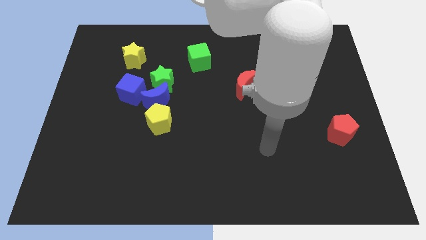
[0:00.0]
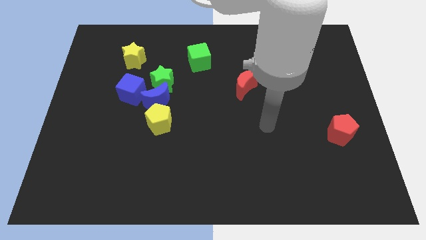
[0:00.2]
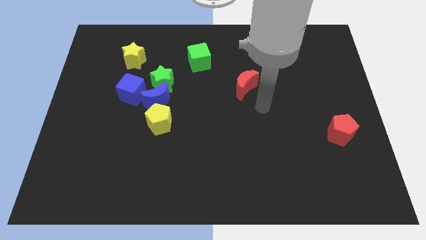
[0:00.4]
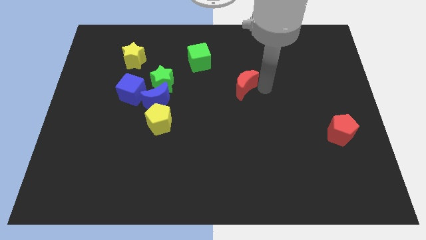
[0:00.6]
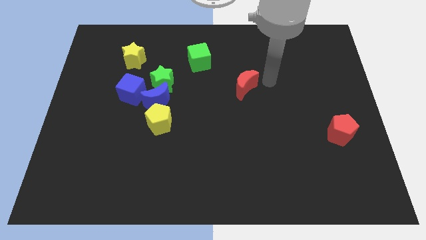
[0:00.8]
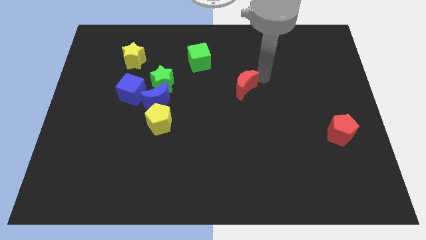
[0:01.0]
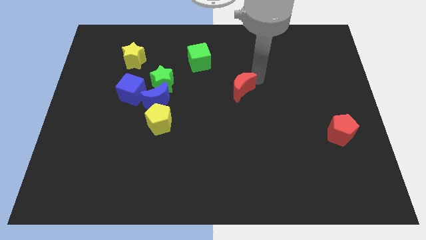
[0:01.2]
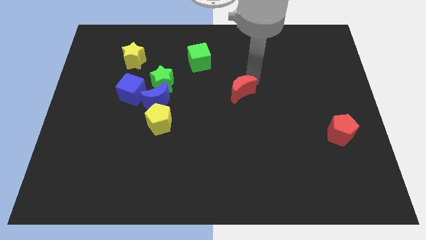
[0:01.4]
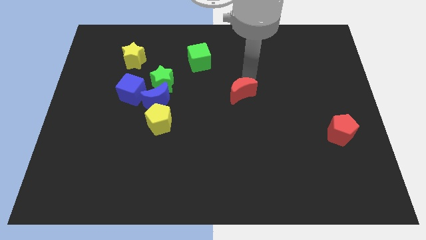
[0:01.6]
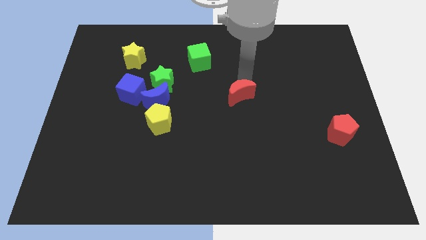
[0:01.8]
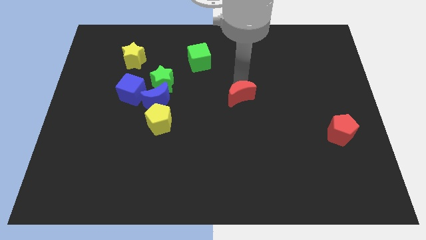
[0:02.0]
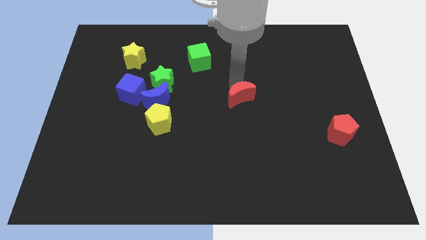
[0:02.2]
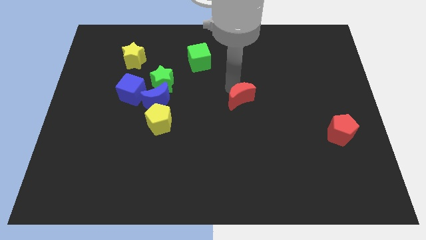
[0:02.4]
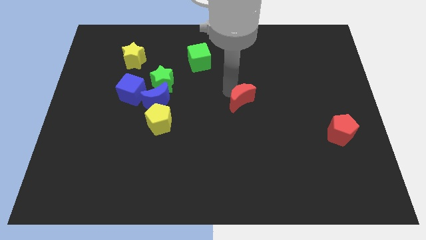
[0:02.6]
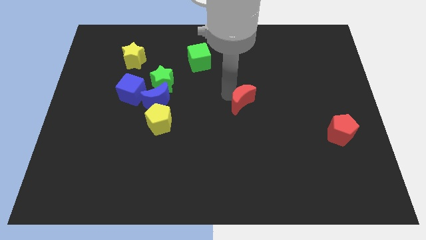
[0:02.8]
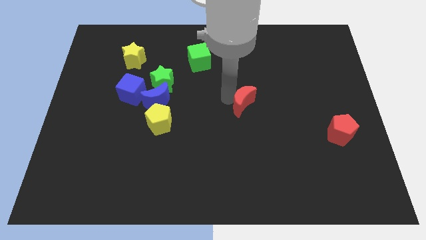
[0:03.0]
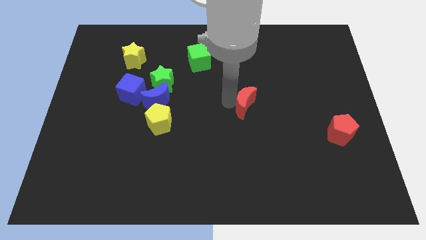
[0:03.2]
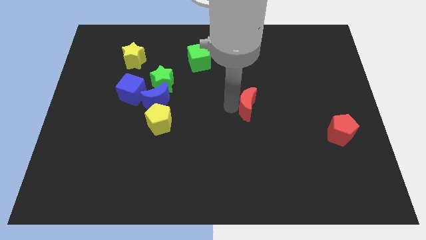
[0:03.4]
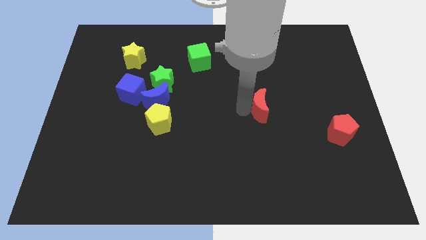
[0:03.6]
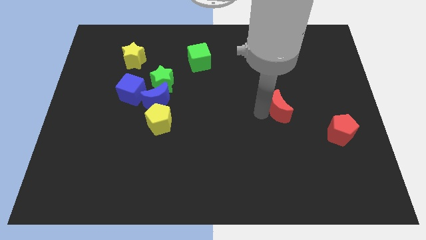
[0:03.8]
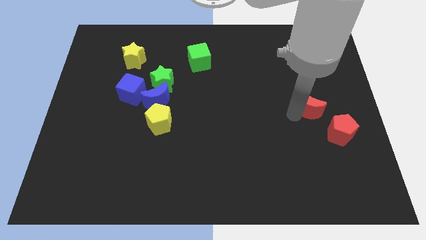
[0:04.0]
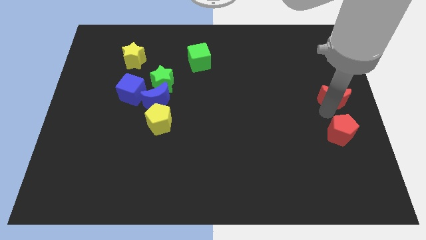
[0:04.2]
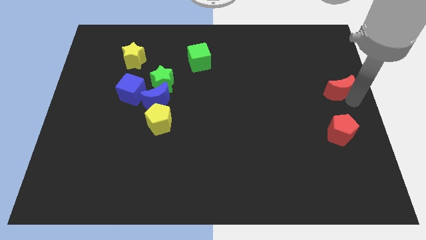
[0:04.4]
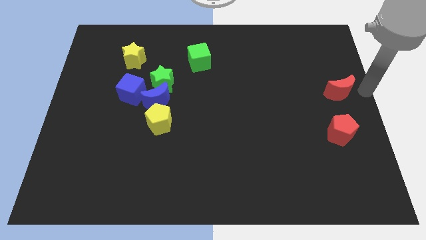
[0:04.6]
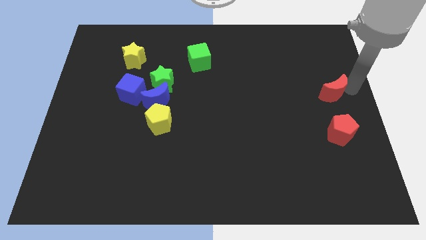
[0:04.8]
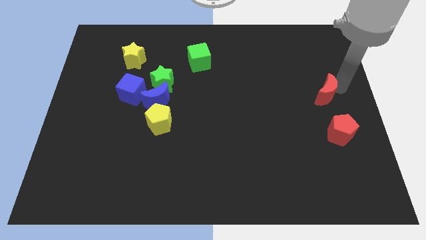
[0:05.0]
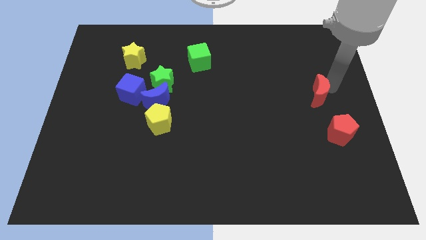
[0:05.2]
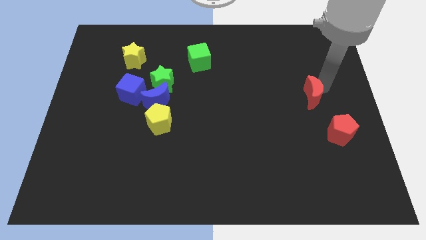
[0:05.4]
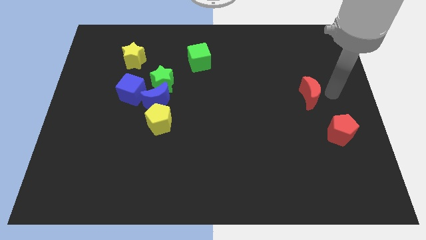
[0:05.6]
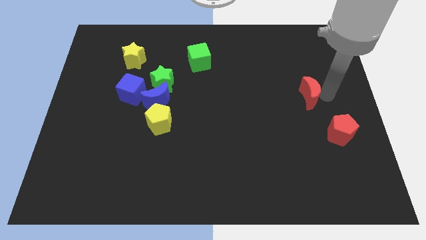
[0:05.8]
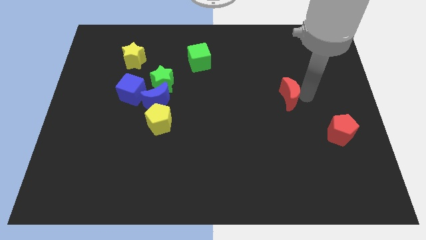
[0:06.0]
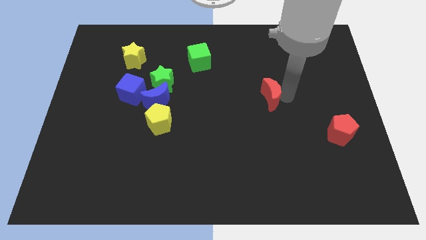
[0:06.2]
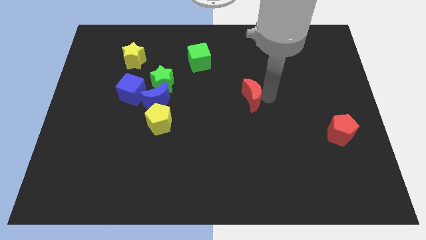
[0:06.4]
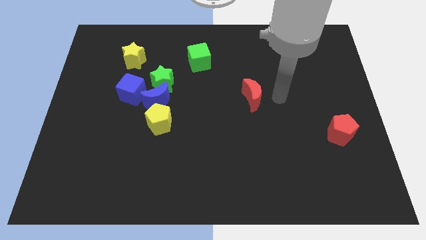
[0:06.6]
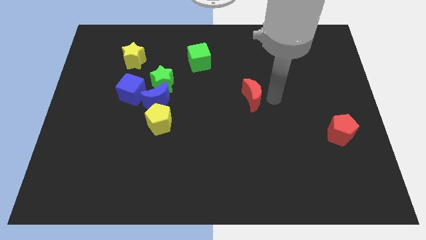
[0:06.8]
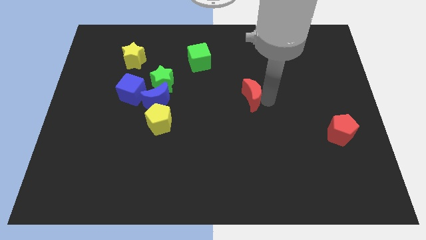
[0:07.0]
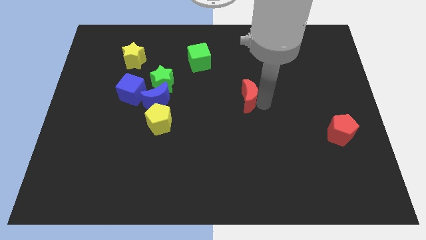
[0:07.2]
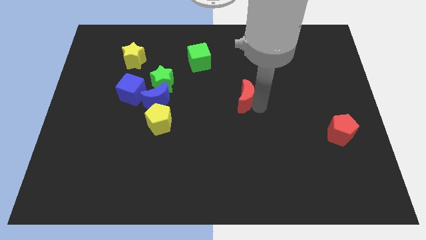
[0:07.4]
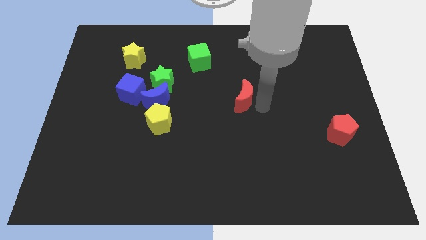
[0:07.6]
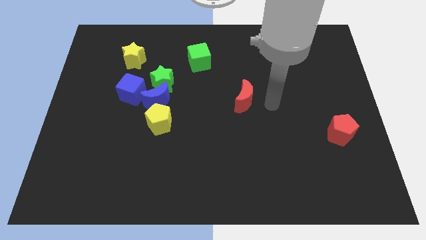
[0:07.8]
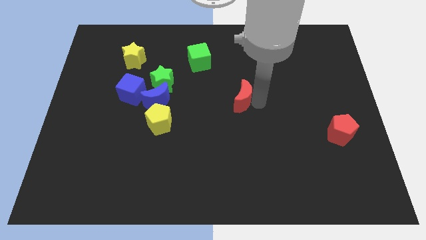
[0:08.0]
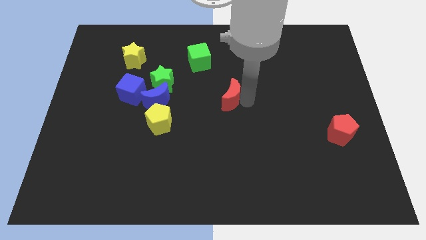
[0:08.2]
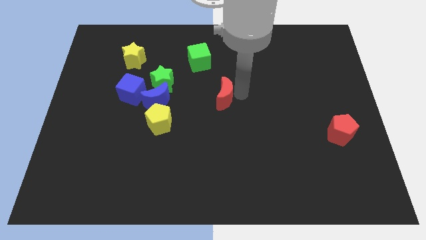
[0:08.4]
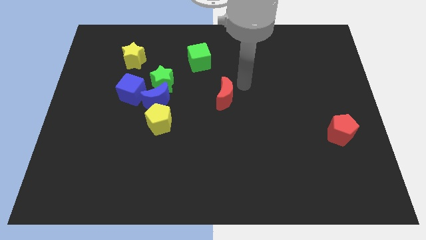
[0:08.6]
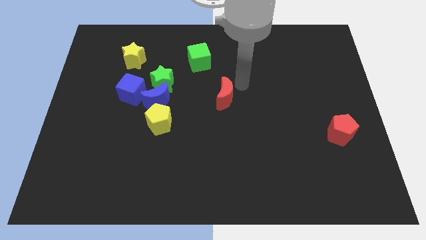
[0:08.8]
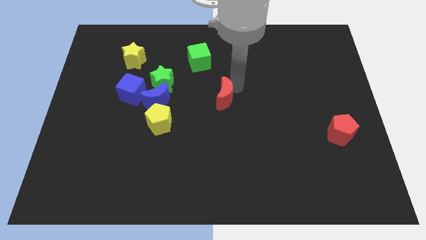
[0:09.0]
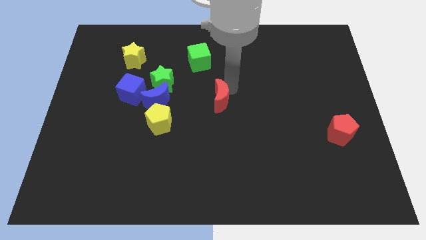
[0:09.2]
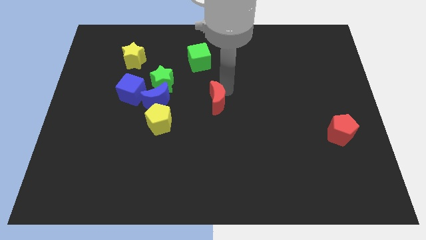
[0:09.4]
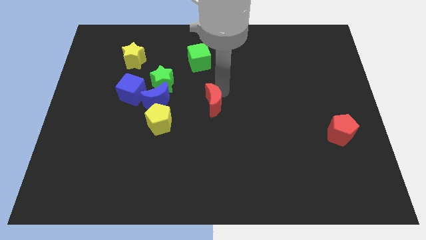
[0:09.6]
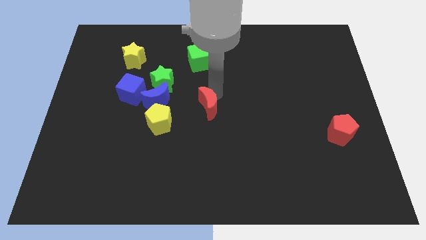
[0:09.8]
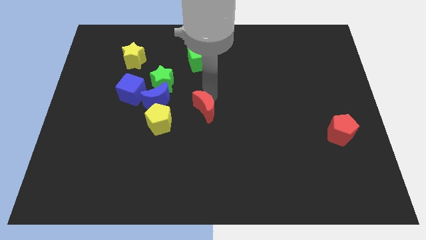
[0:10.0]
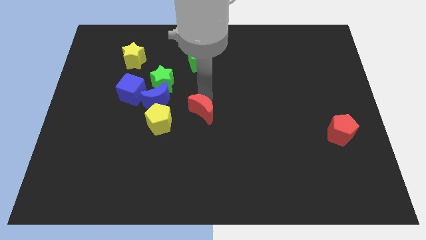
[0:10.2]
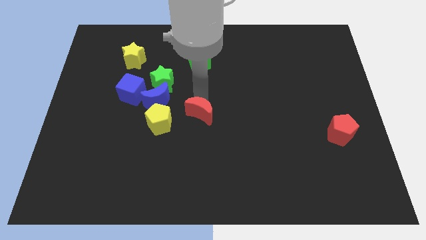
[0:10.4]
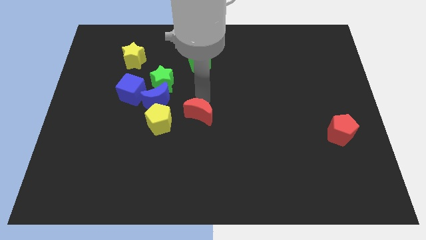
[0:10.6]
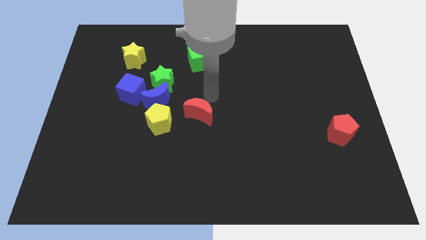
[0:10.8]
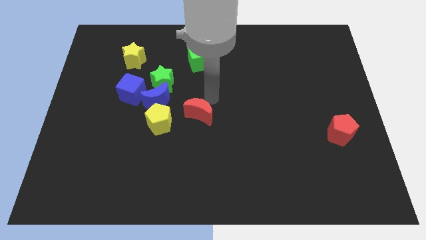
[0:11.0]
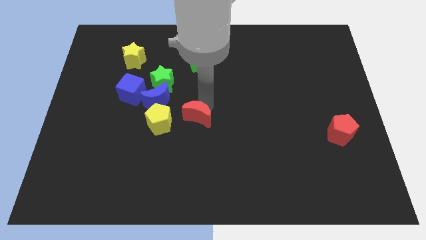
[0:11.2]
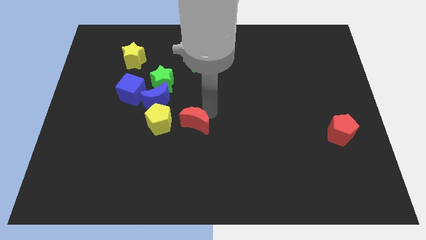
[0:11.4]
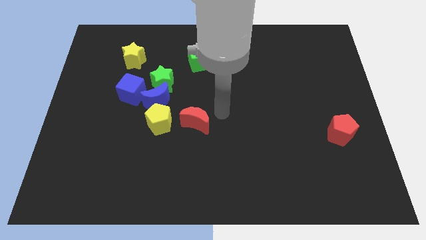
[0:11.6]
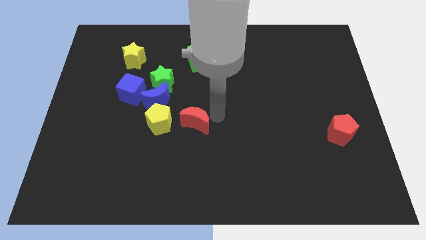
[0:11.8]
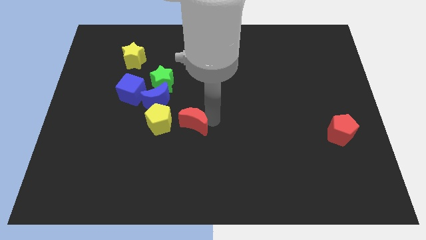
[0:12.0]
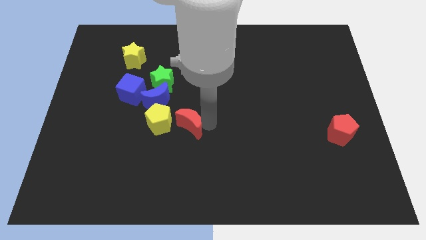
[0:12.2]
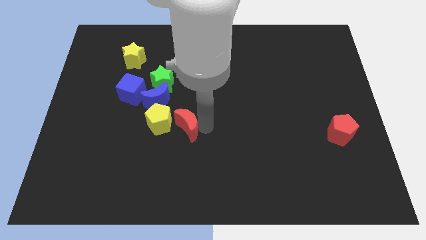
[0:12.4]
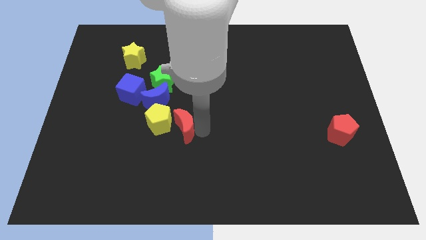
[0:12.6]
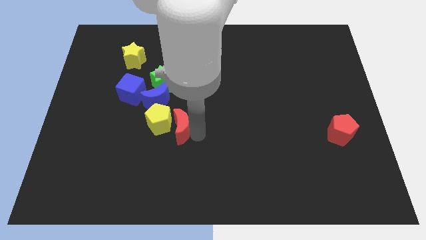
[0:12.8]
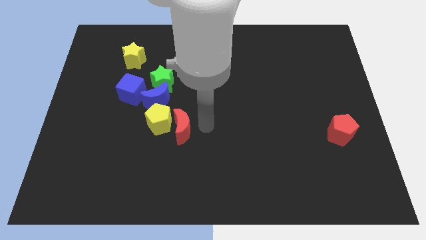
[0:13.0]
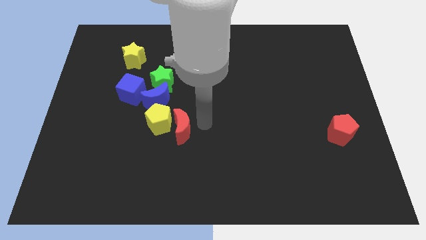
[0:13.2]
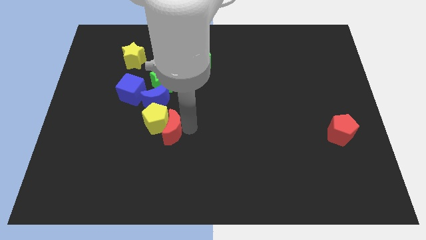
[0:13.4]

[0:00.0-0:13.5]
move the red moon to the bottom of the blue moon
